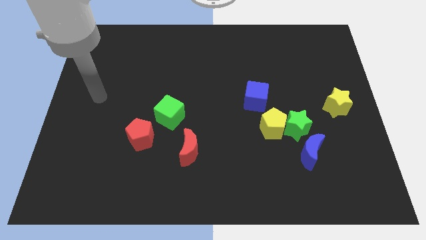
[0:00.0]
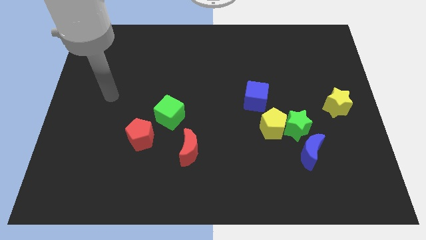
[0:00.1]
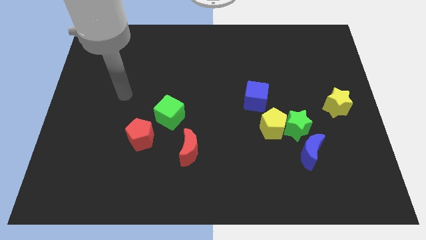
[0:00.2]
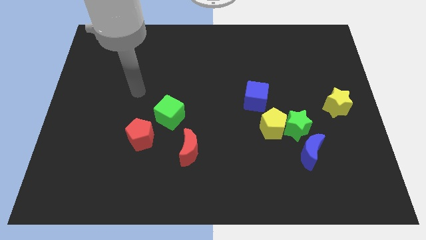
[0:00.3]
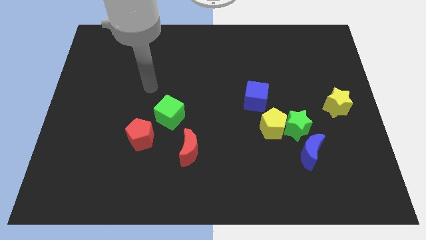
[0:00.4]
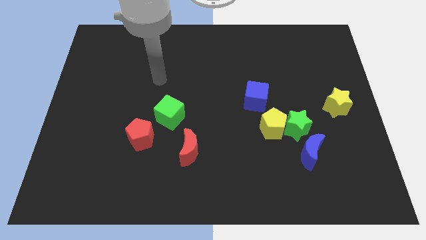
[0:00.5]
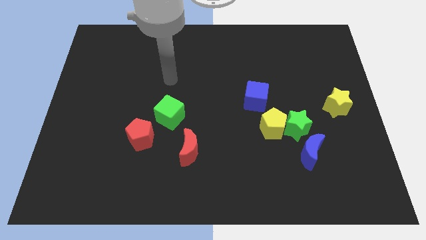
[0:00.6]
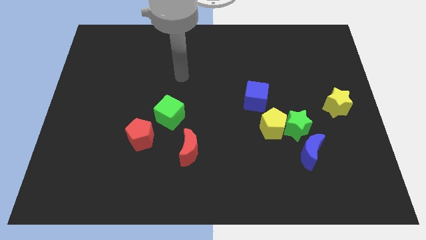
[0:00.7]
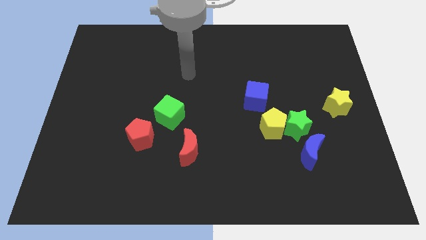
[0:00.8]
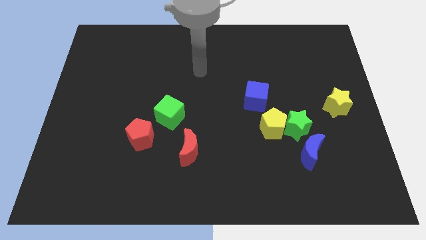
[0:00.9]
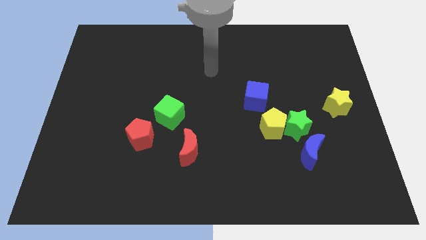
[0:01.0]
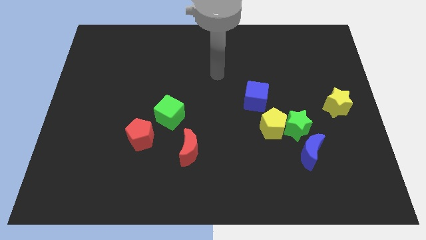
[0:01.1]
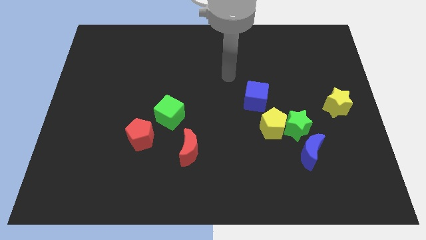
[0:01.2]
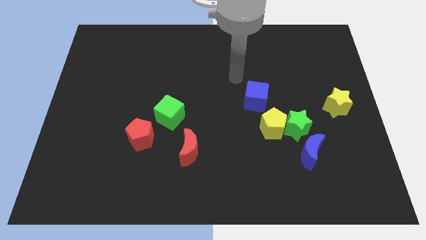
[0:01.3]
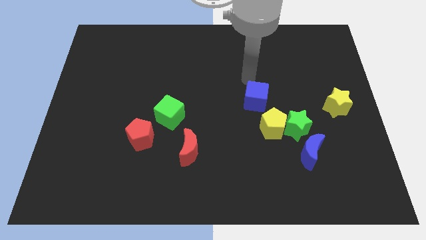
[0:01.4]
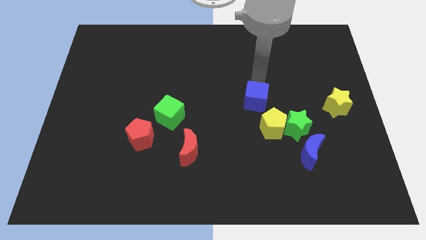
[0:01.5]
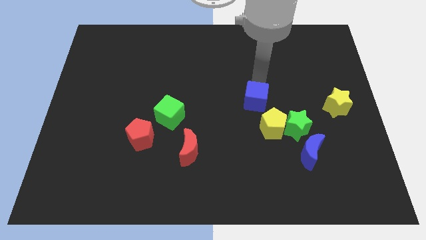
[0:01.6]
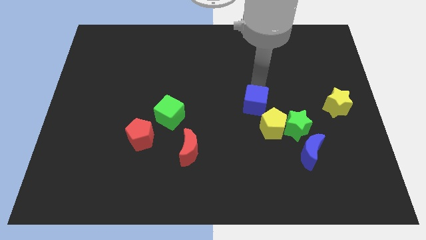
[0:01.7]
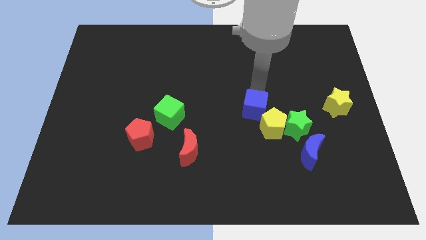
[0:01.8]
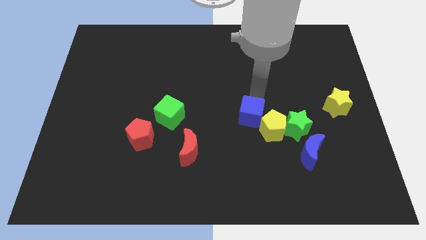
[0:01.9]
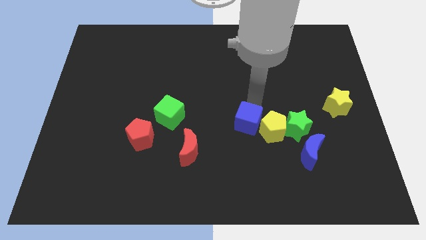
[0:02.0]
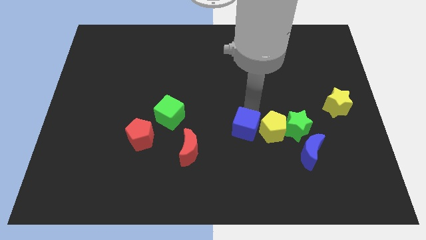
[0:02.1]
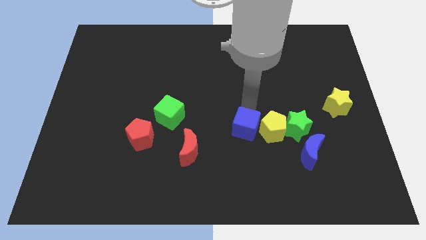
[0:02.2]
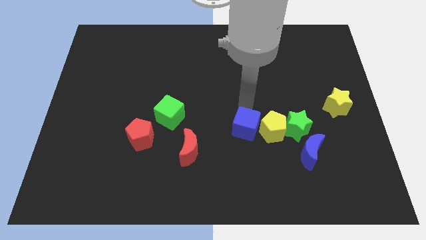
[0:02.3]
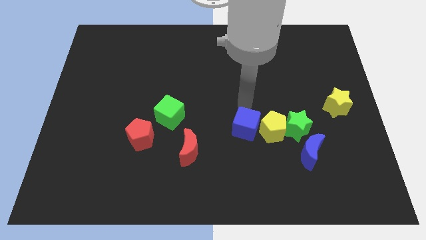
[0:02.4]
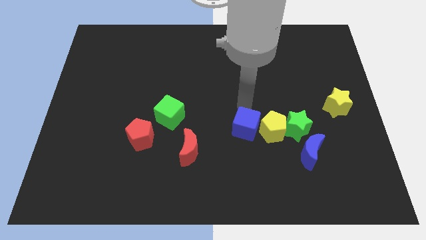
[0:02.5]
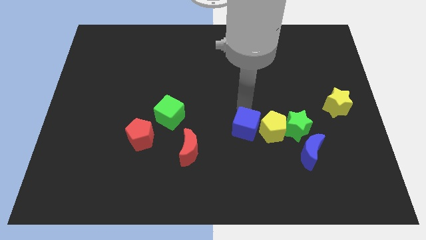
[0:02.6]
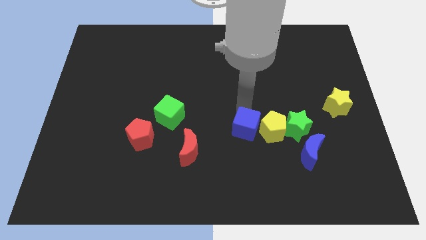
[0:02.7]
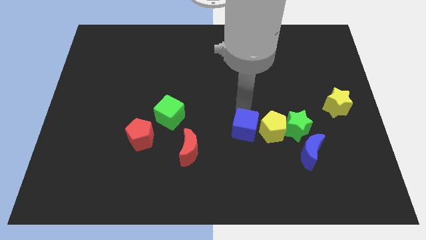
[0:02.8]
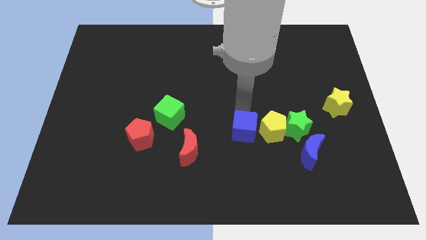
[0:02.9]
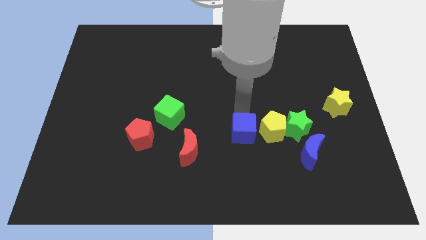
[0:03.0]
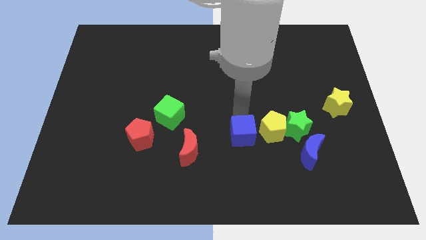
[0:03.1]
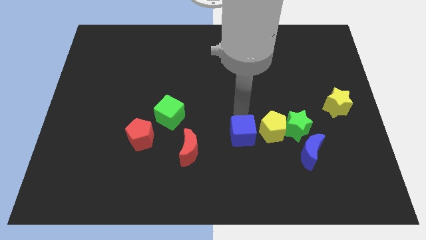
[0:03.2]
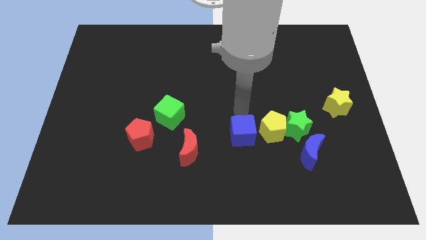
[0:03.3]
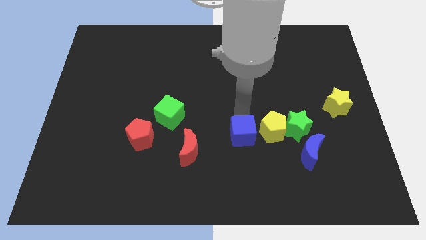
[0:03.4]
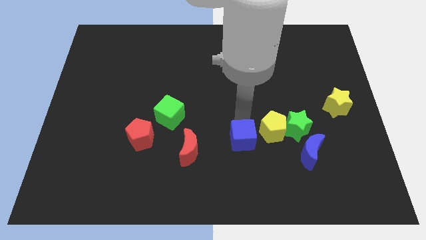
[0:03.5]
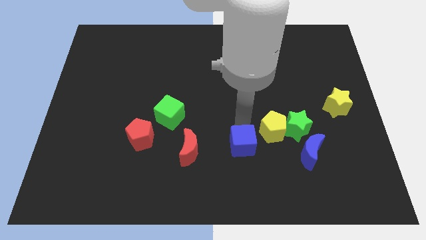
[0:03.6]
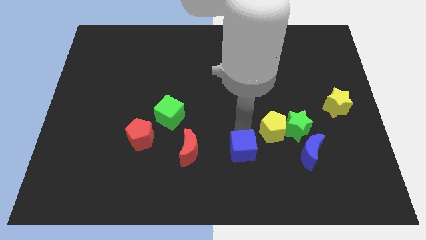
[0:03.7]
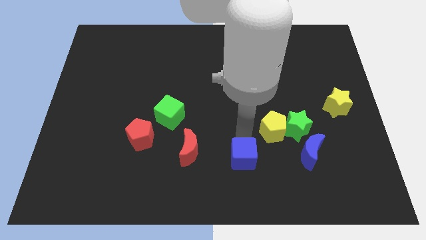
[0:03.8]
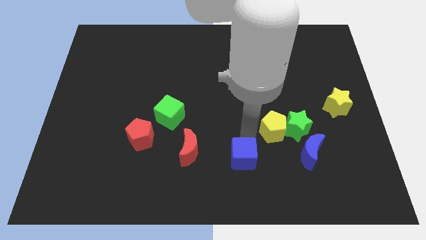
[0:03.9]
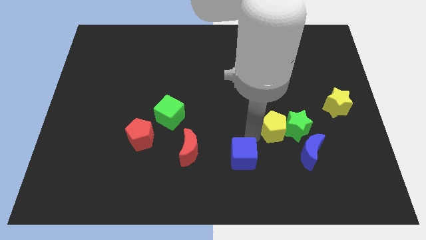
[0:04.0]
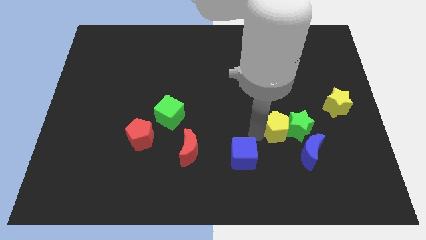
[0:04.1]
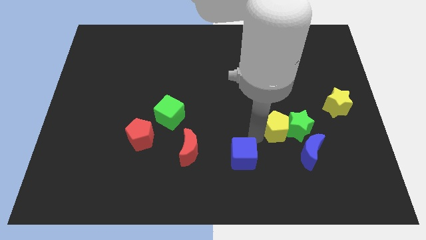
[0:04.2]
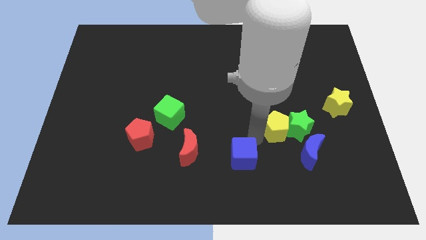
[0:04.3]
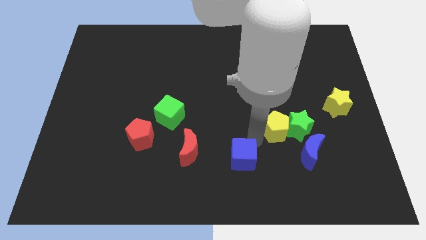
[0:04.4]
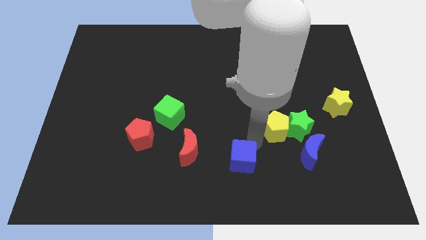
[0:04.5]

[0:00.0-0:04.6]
put the blue cube to the bottom side

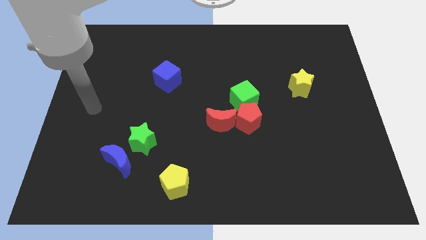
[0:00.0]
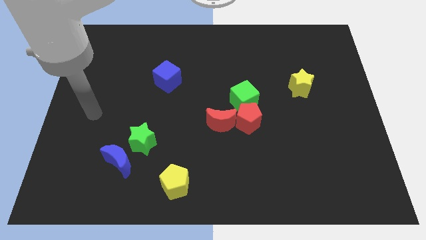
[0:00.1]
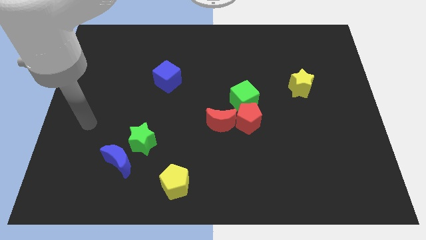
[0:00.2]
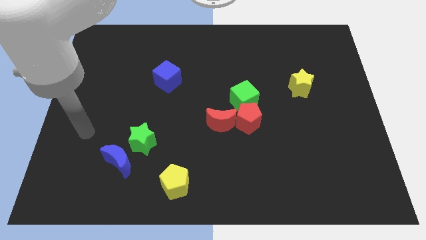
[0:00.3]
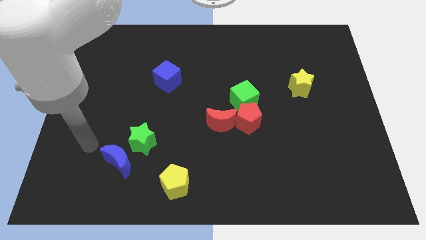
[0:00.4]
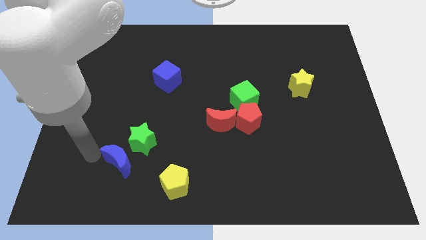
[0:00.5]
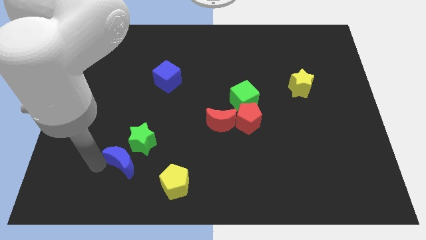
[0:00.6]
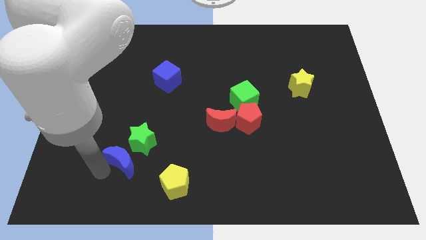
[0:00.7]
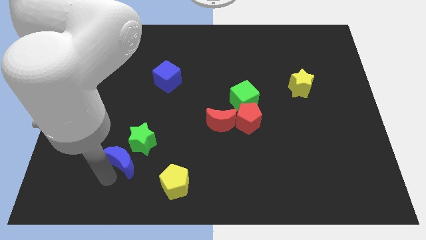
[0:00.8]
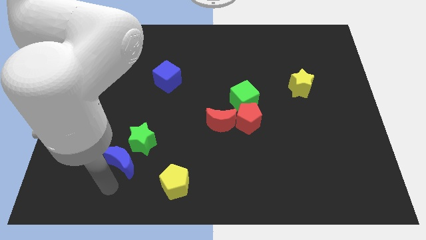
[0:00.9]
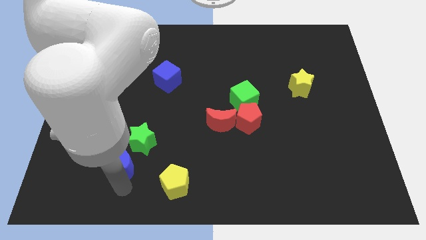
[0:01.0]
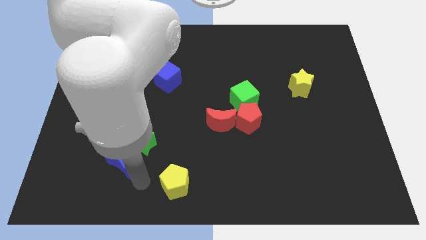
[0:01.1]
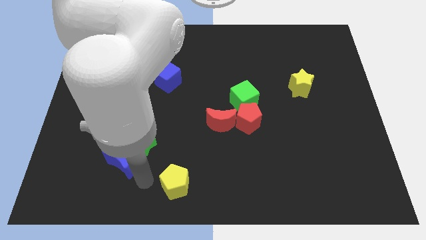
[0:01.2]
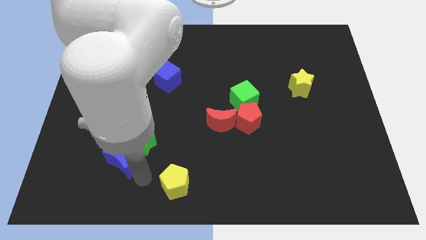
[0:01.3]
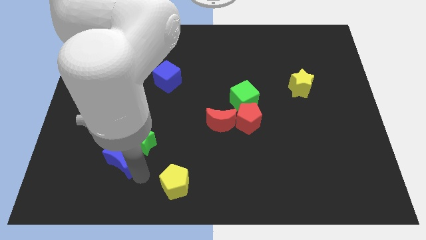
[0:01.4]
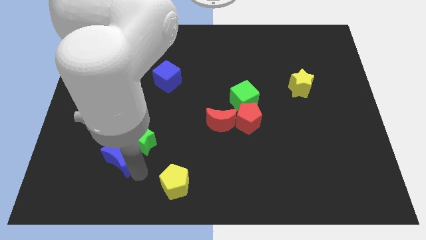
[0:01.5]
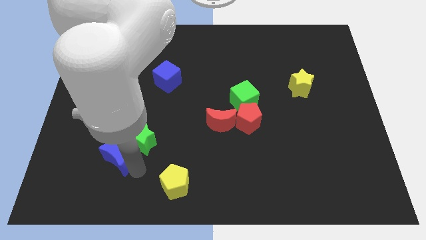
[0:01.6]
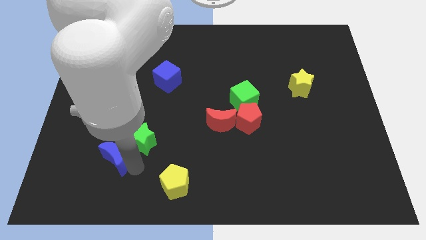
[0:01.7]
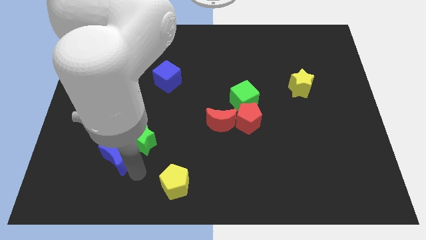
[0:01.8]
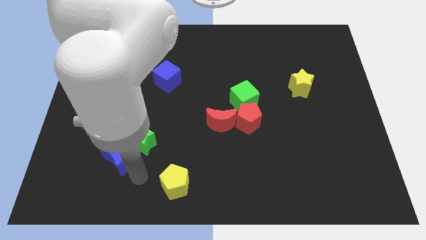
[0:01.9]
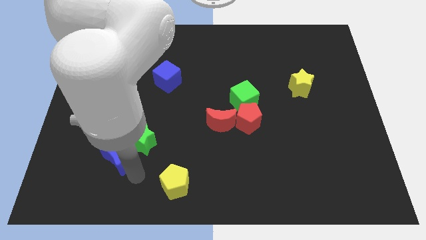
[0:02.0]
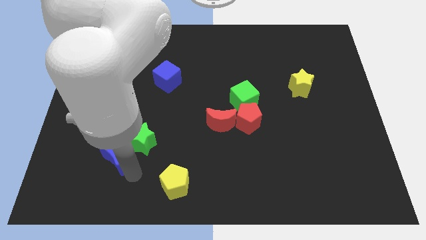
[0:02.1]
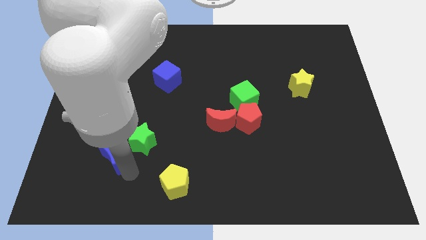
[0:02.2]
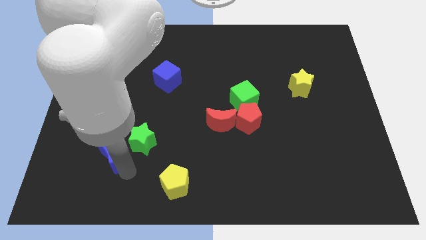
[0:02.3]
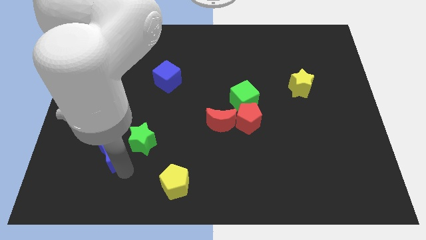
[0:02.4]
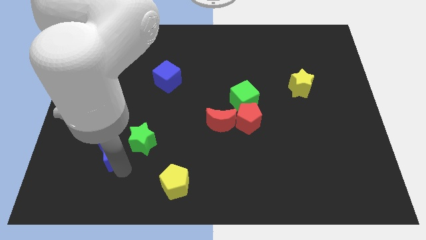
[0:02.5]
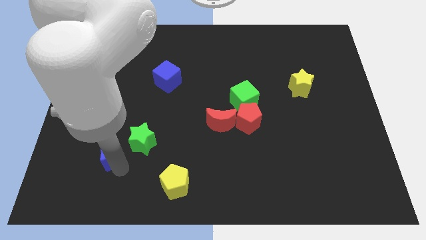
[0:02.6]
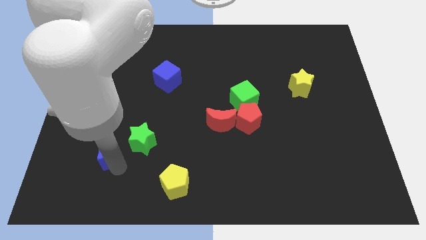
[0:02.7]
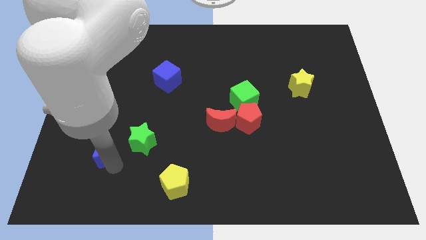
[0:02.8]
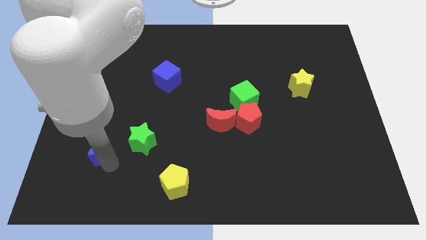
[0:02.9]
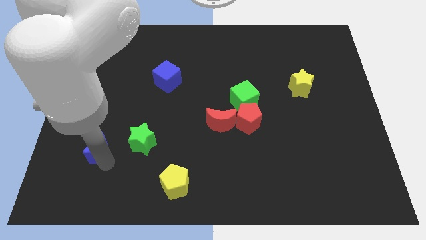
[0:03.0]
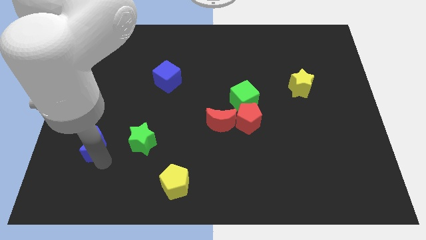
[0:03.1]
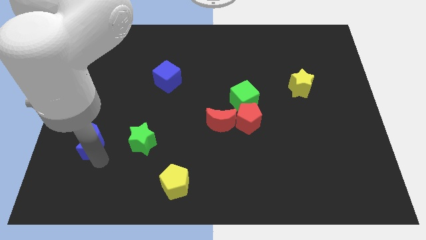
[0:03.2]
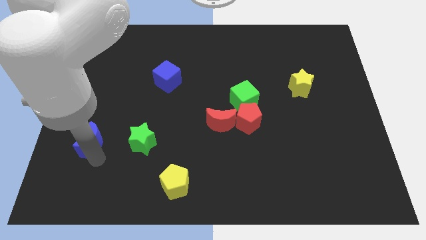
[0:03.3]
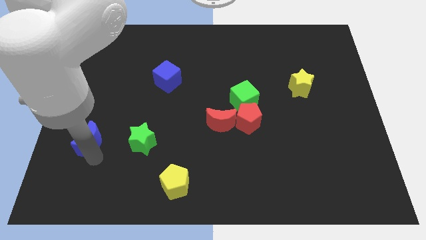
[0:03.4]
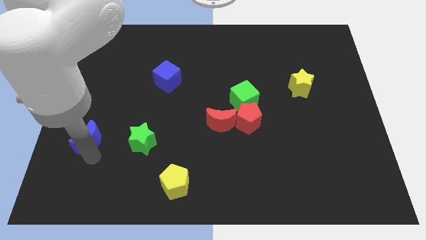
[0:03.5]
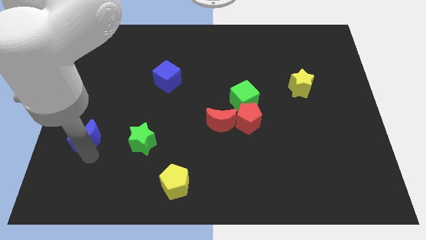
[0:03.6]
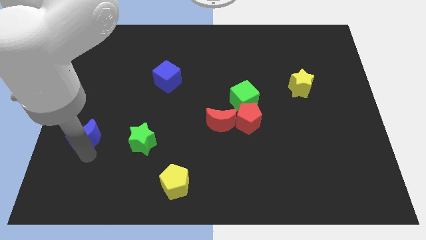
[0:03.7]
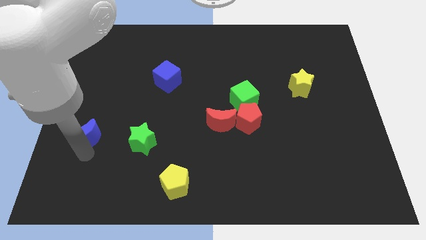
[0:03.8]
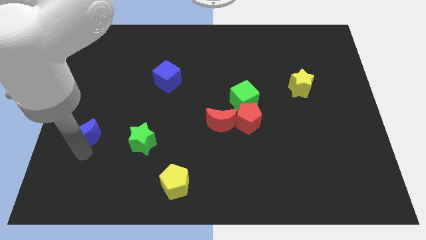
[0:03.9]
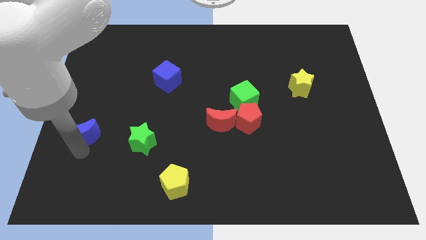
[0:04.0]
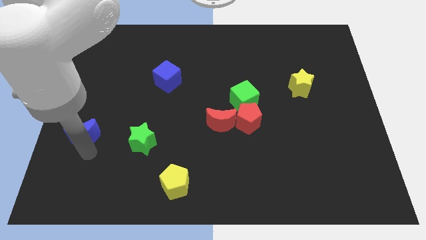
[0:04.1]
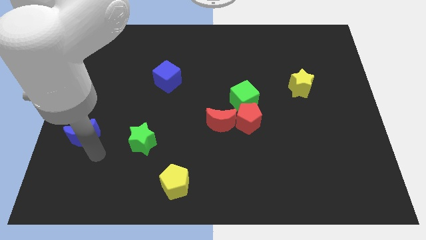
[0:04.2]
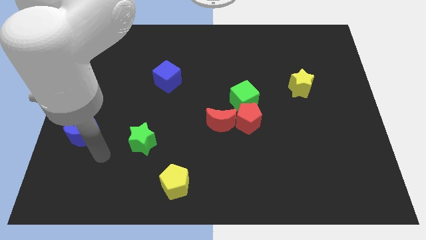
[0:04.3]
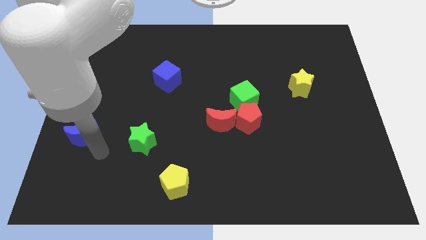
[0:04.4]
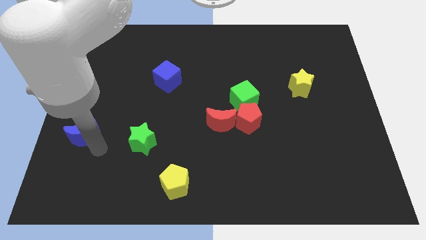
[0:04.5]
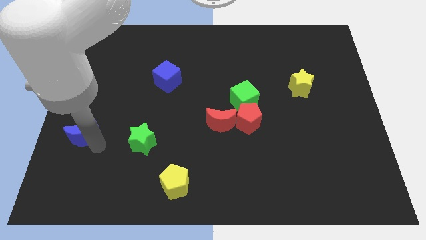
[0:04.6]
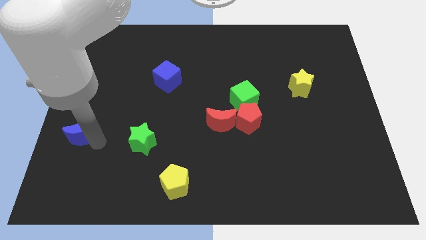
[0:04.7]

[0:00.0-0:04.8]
put the blue moon to the left side of the board
